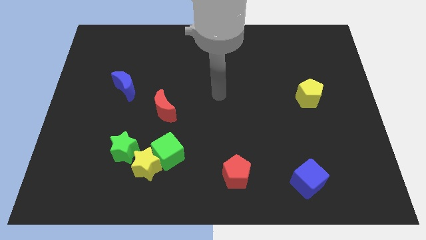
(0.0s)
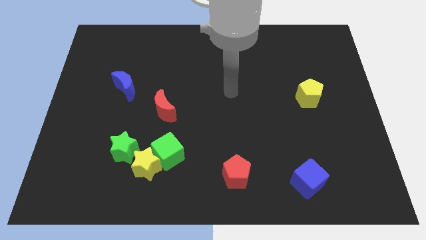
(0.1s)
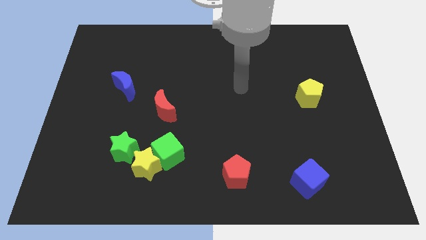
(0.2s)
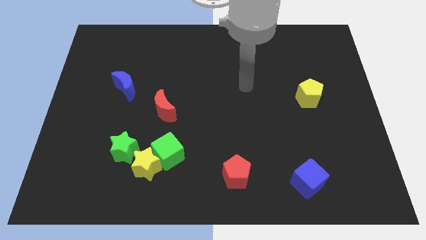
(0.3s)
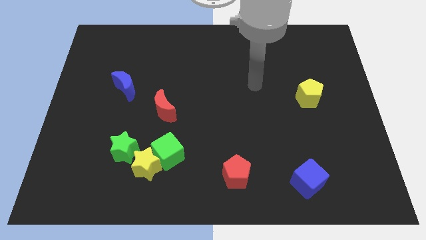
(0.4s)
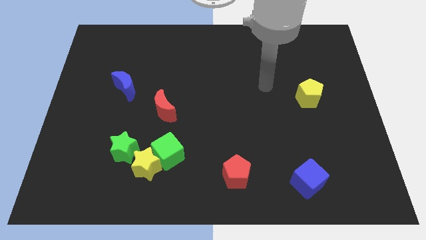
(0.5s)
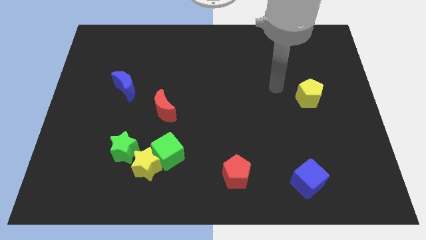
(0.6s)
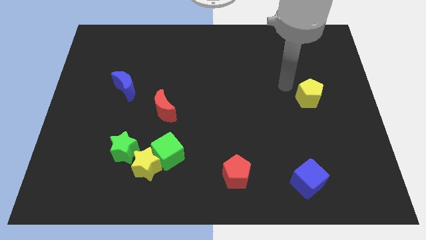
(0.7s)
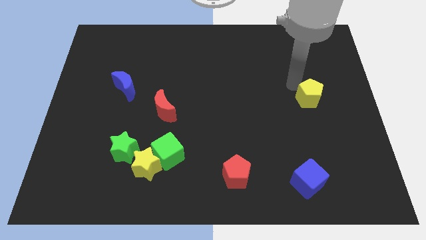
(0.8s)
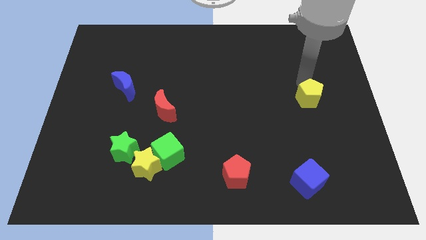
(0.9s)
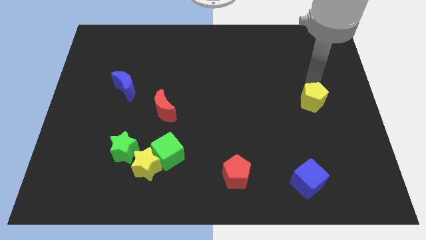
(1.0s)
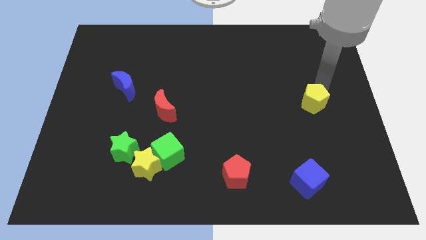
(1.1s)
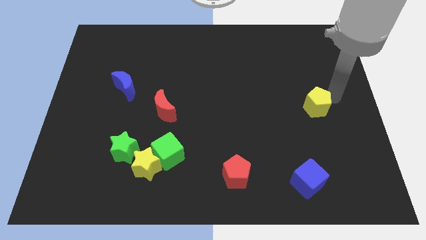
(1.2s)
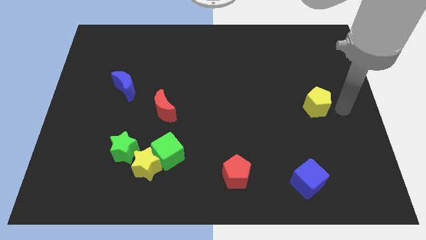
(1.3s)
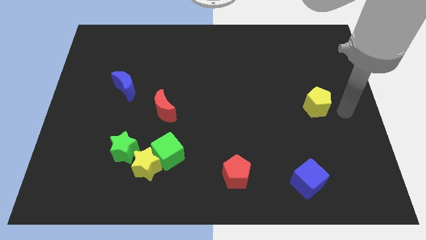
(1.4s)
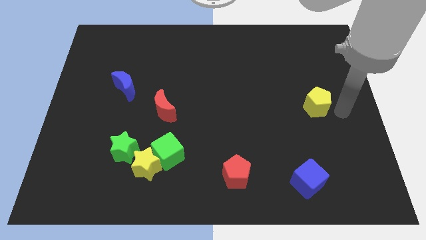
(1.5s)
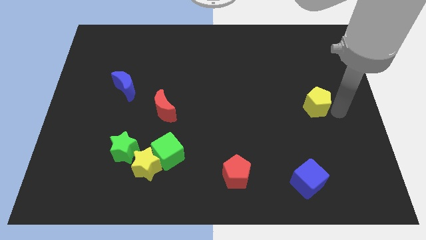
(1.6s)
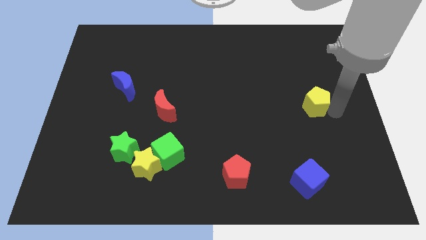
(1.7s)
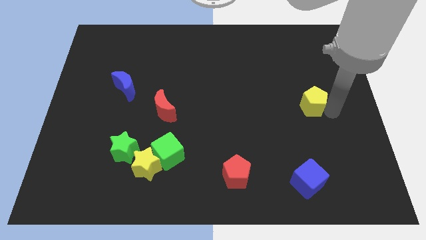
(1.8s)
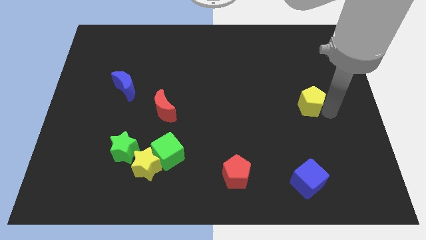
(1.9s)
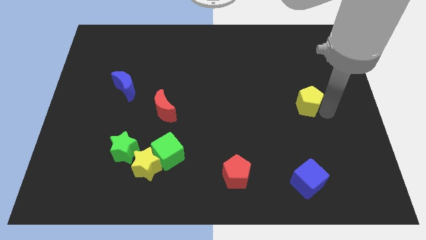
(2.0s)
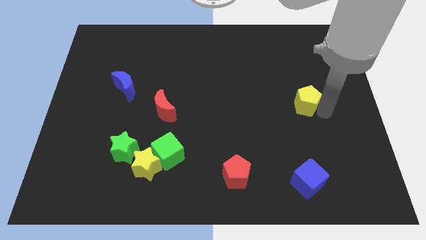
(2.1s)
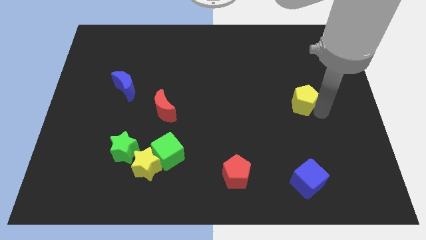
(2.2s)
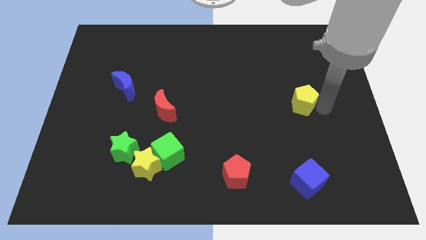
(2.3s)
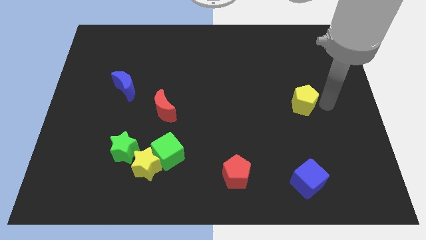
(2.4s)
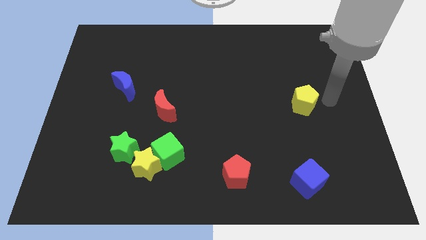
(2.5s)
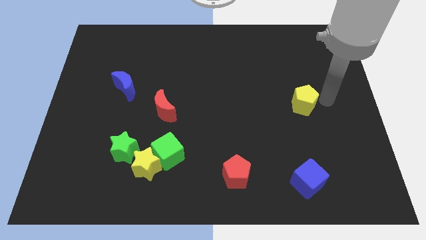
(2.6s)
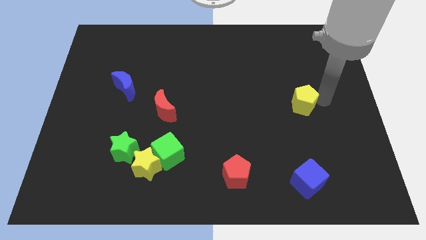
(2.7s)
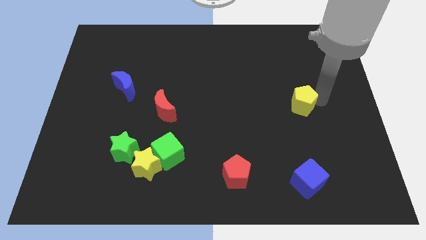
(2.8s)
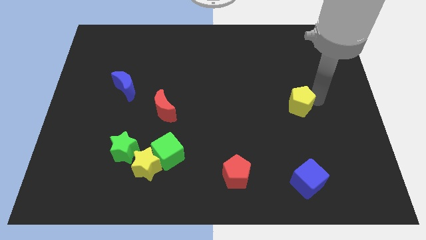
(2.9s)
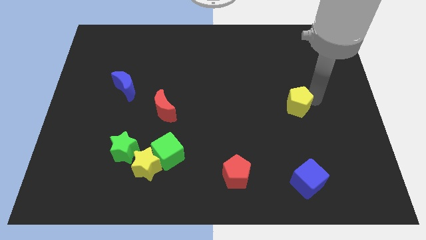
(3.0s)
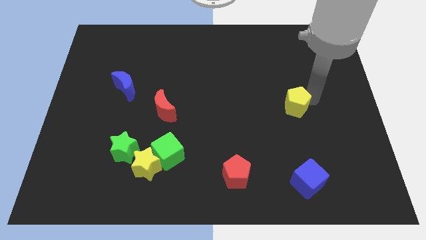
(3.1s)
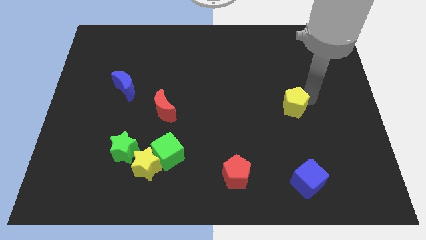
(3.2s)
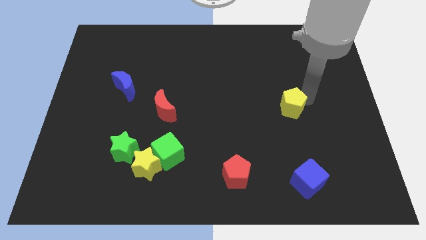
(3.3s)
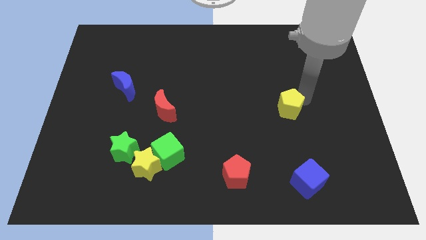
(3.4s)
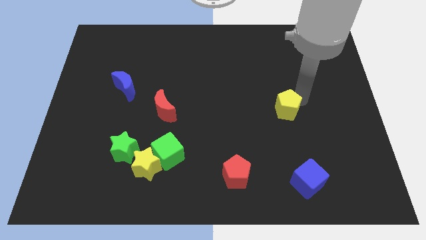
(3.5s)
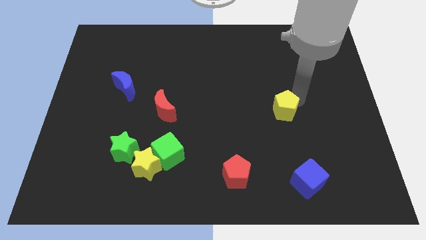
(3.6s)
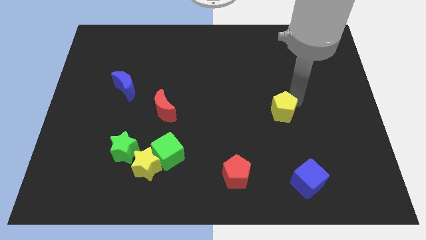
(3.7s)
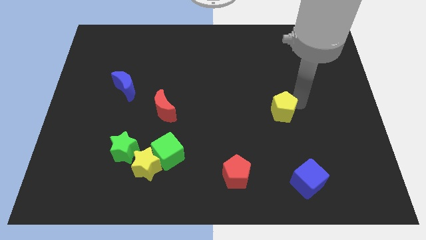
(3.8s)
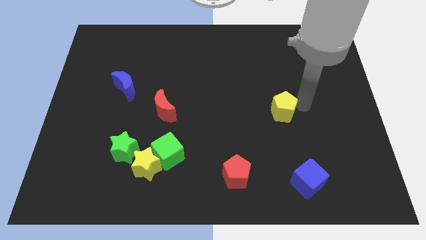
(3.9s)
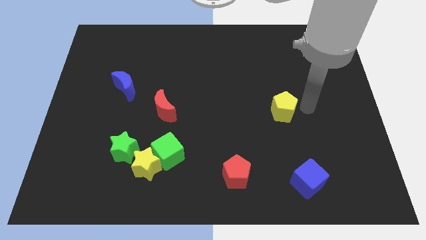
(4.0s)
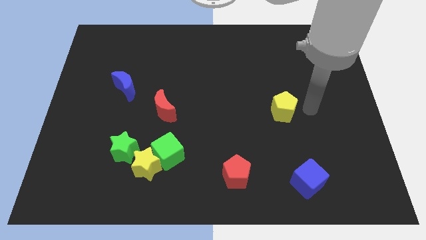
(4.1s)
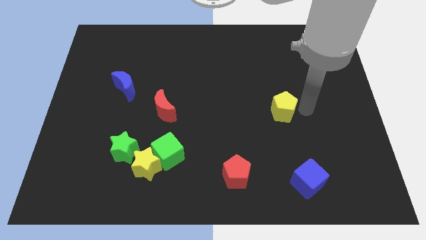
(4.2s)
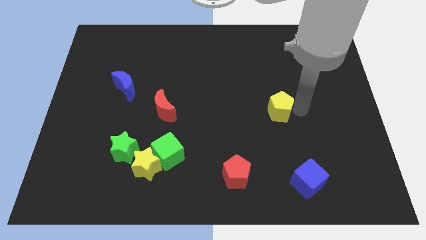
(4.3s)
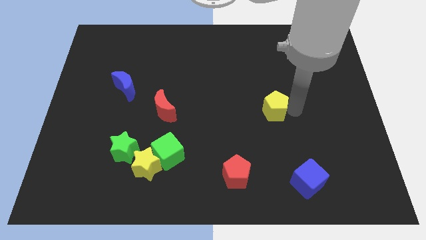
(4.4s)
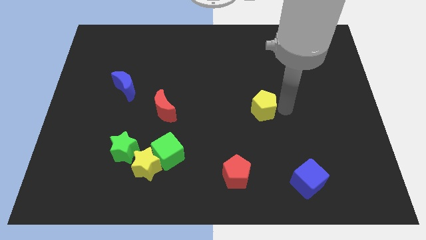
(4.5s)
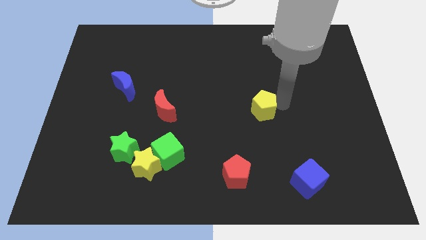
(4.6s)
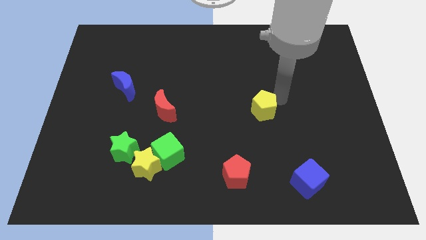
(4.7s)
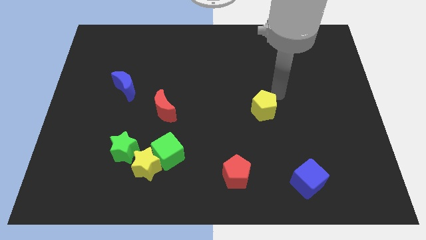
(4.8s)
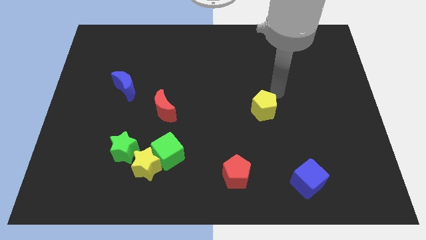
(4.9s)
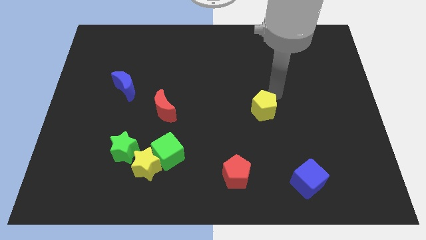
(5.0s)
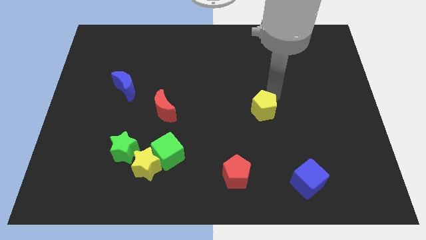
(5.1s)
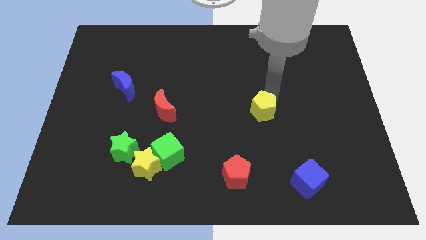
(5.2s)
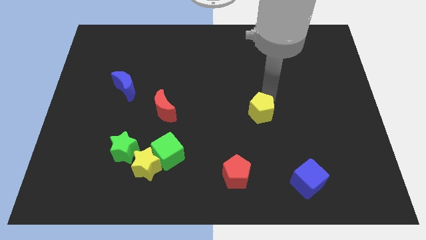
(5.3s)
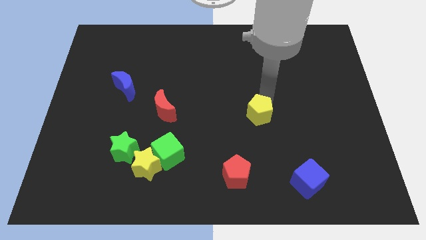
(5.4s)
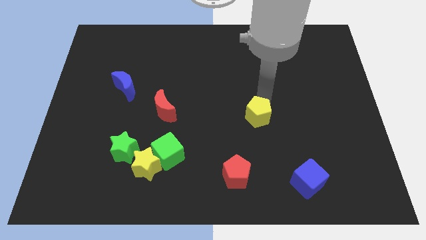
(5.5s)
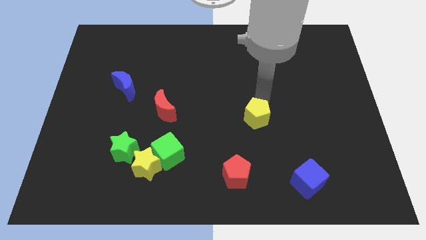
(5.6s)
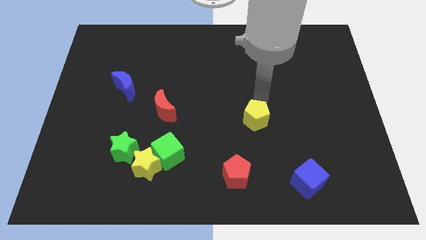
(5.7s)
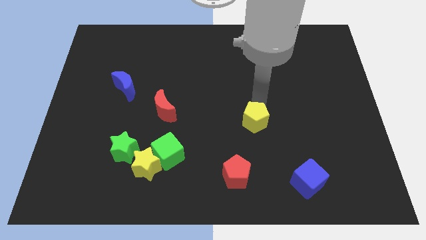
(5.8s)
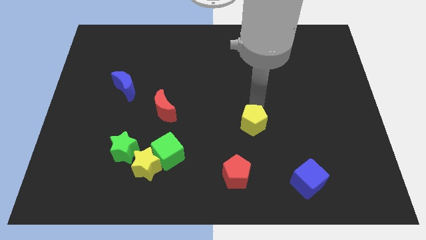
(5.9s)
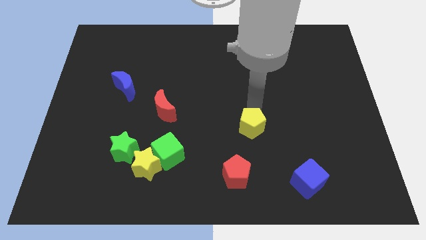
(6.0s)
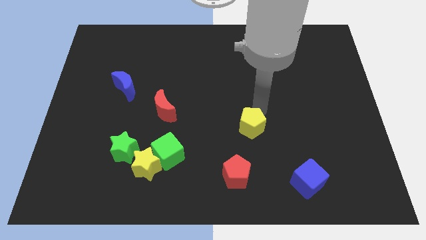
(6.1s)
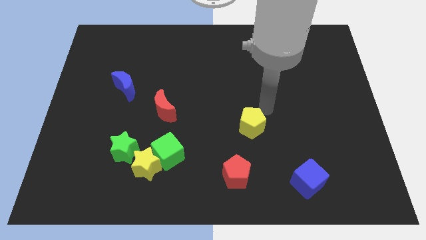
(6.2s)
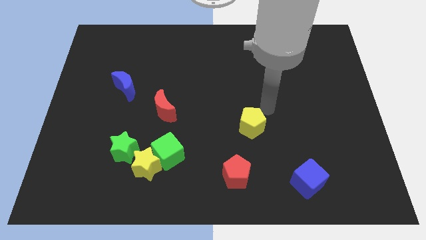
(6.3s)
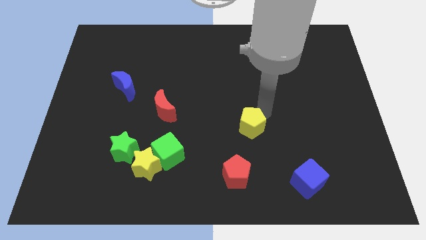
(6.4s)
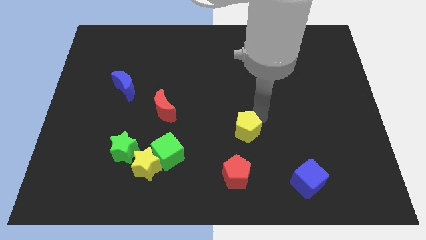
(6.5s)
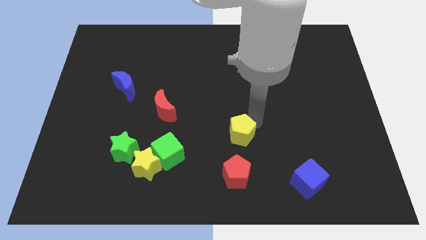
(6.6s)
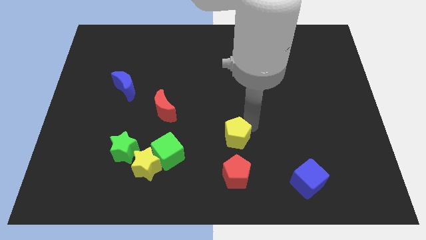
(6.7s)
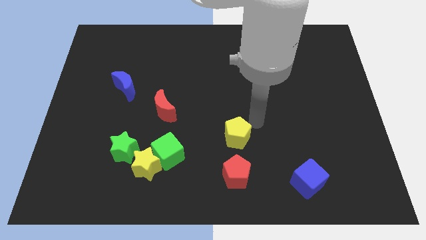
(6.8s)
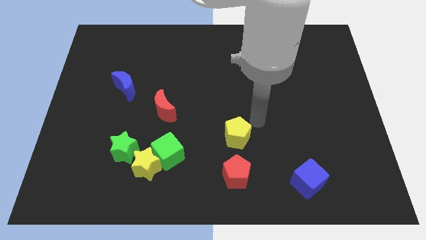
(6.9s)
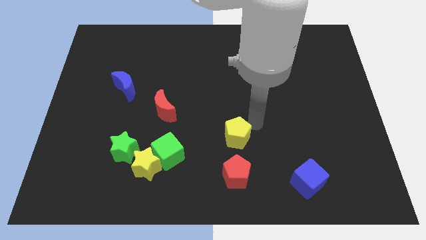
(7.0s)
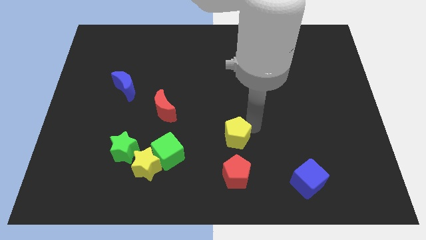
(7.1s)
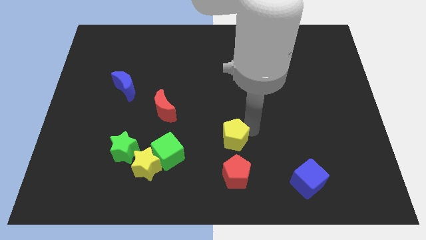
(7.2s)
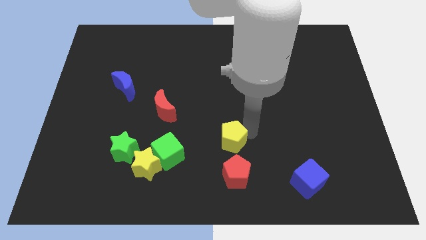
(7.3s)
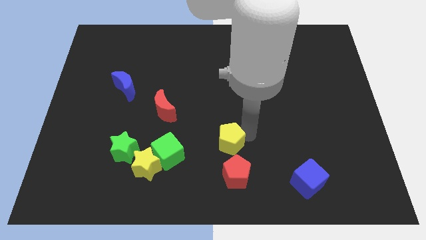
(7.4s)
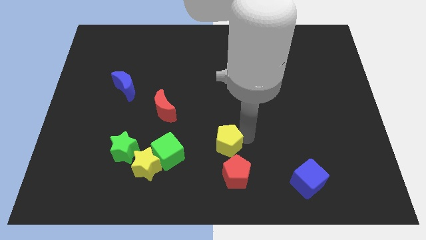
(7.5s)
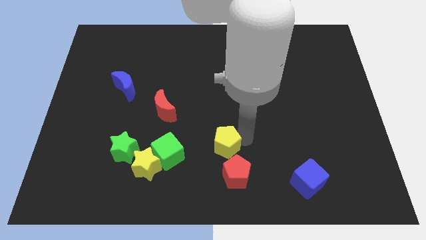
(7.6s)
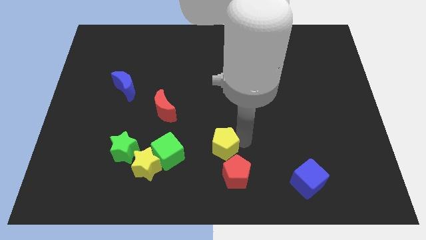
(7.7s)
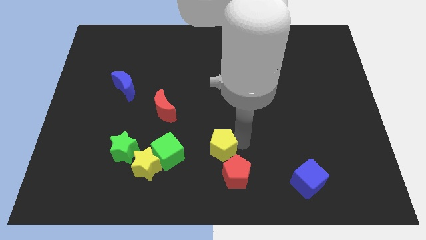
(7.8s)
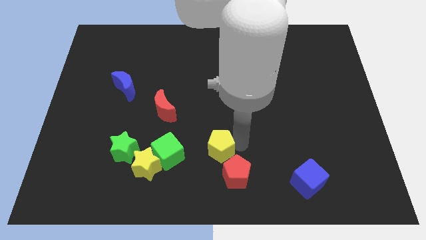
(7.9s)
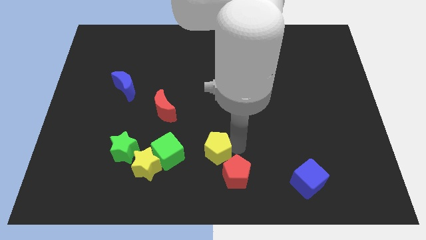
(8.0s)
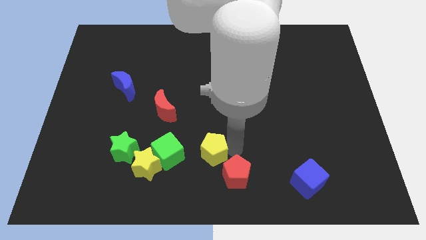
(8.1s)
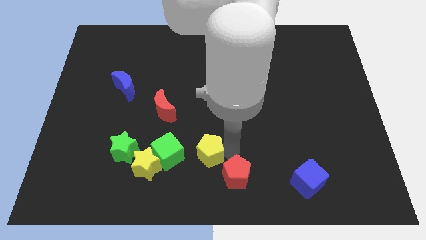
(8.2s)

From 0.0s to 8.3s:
slide the yellow pentagon to the left of the red pentagon
